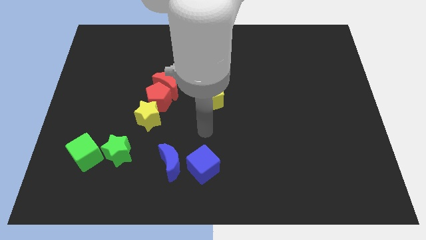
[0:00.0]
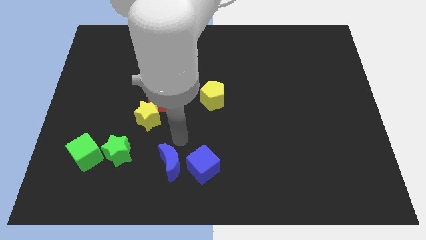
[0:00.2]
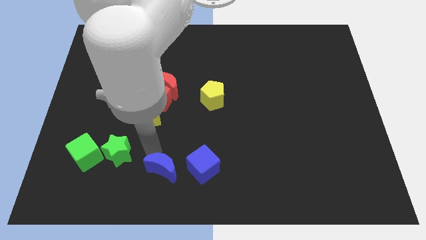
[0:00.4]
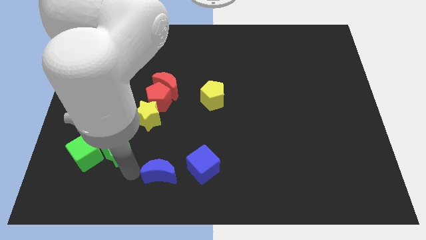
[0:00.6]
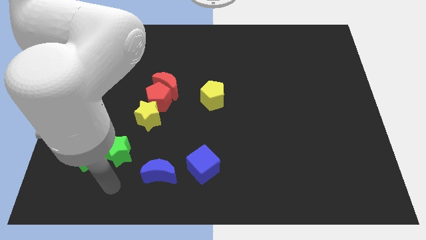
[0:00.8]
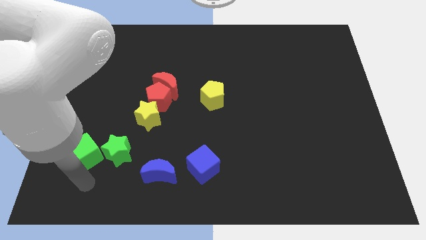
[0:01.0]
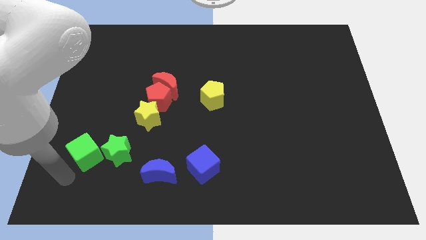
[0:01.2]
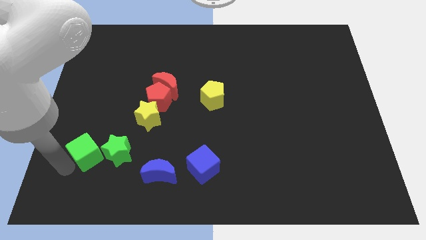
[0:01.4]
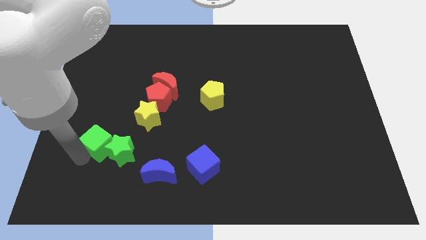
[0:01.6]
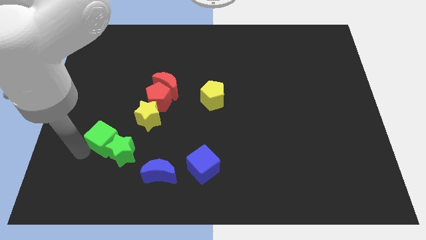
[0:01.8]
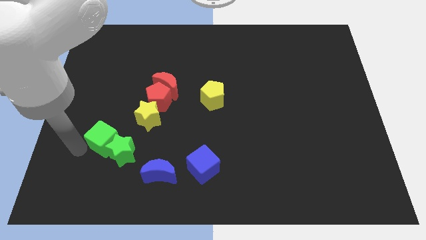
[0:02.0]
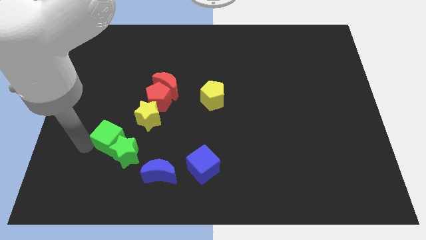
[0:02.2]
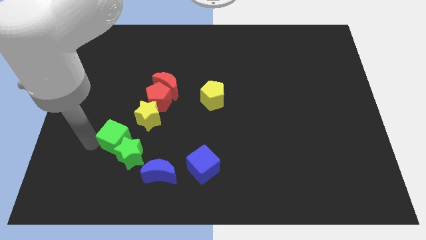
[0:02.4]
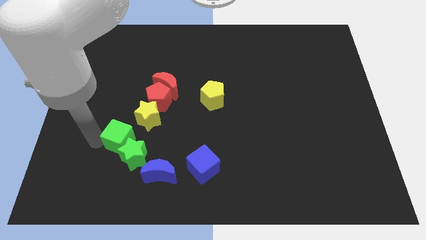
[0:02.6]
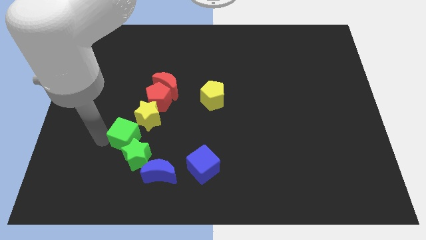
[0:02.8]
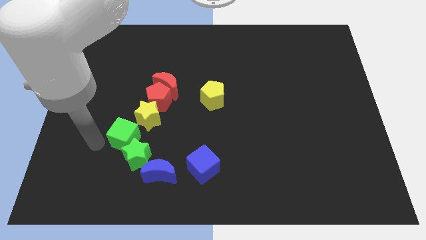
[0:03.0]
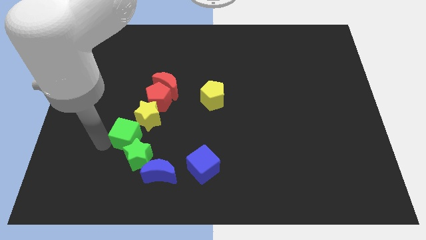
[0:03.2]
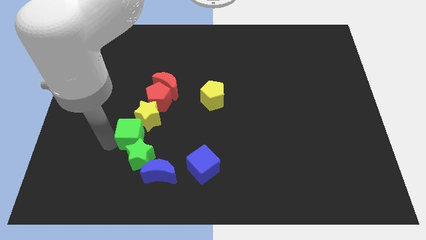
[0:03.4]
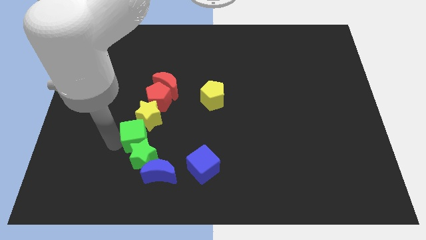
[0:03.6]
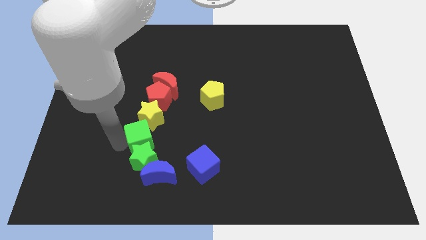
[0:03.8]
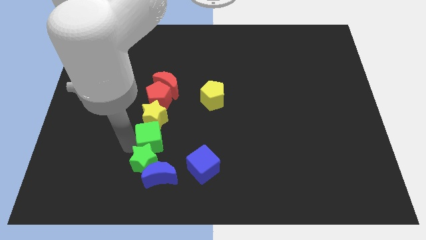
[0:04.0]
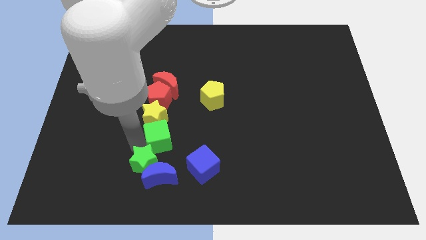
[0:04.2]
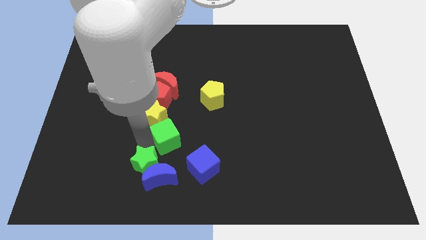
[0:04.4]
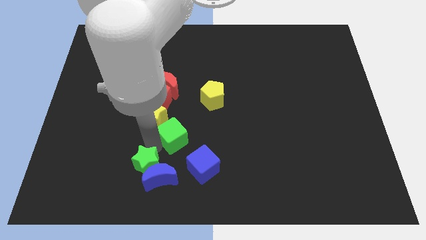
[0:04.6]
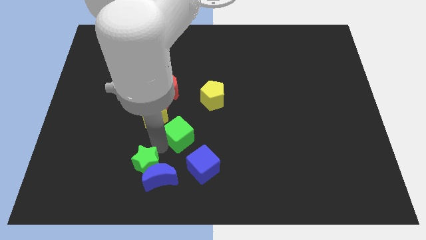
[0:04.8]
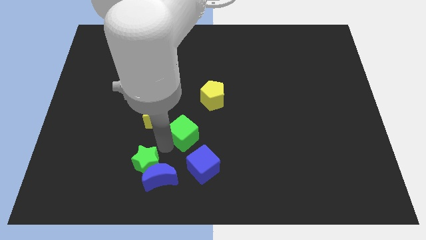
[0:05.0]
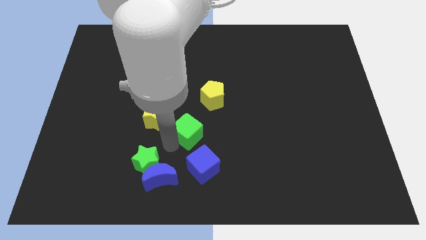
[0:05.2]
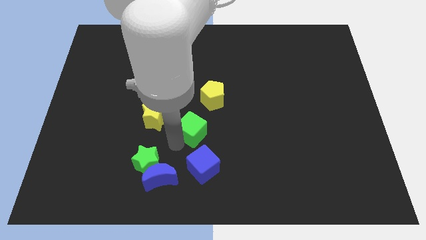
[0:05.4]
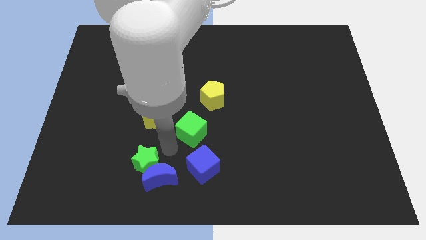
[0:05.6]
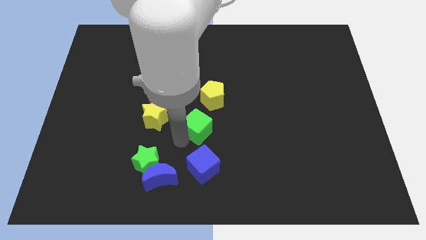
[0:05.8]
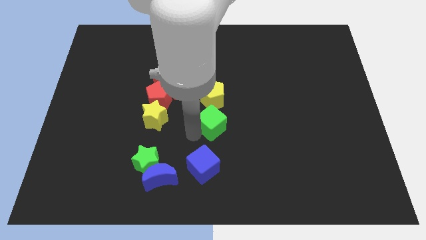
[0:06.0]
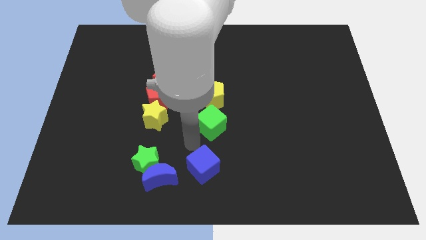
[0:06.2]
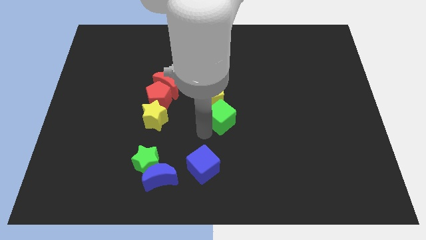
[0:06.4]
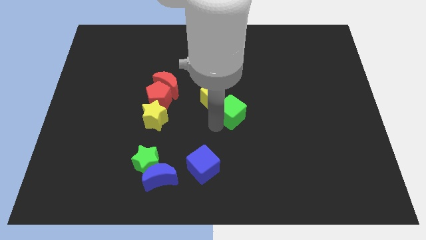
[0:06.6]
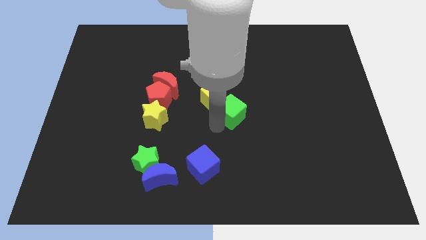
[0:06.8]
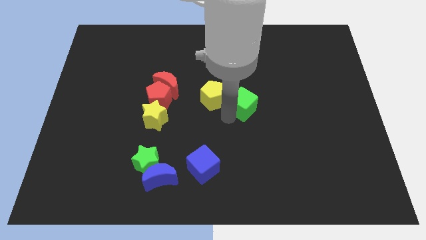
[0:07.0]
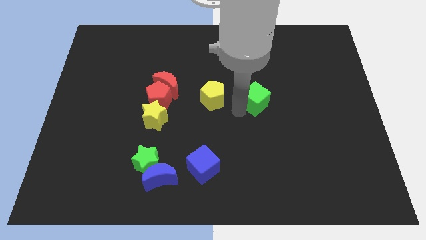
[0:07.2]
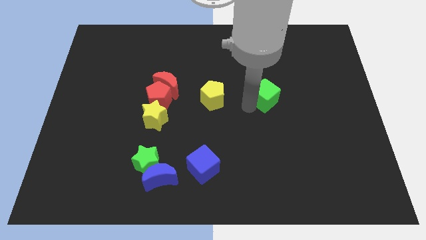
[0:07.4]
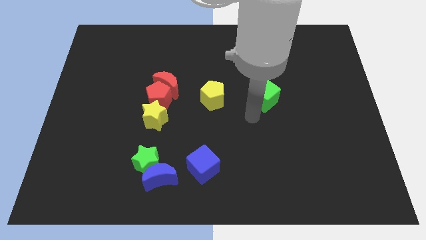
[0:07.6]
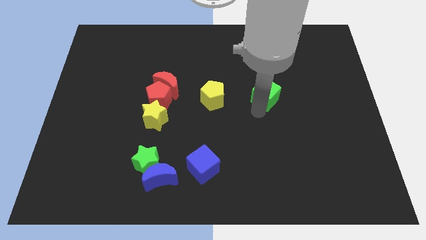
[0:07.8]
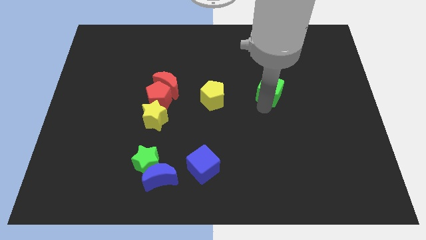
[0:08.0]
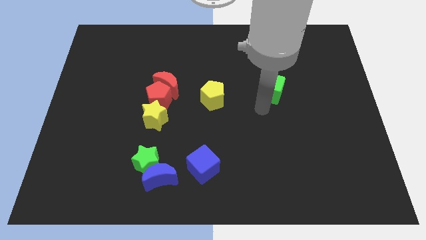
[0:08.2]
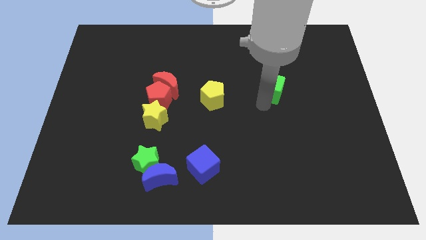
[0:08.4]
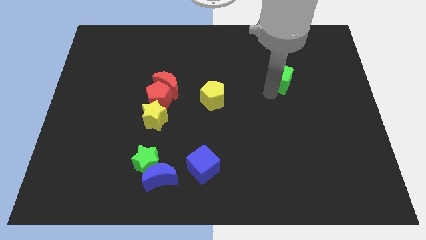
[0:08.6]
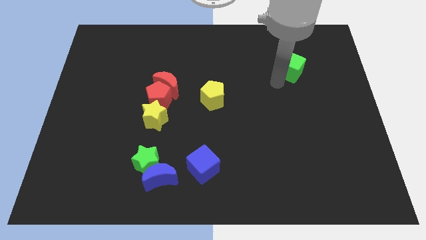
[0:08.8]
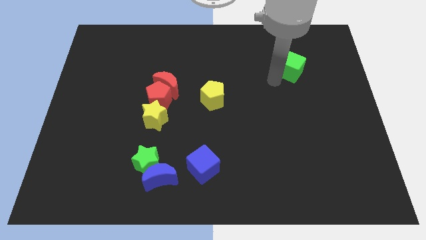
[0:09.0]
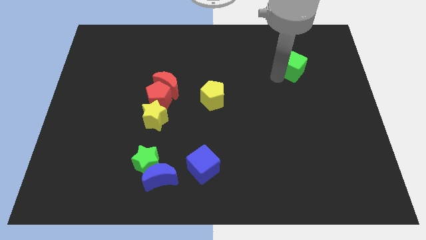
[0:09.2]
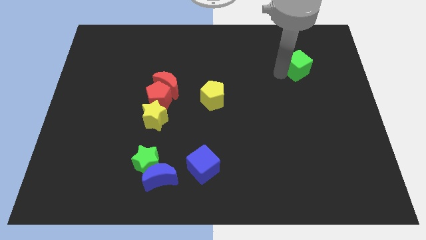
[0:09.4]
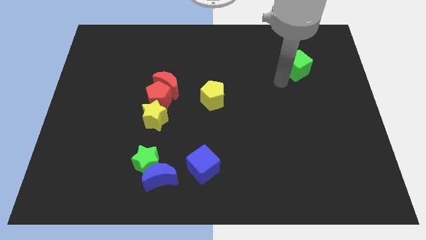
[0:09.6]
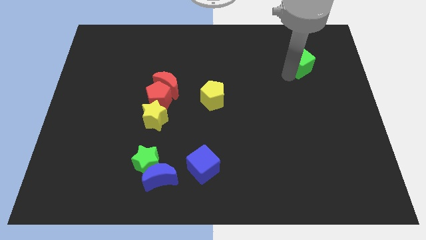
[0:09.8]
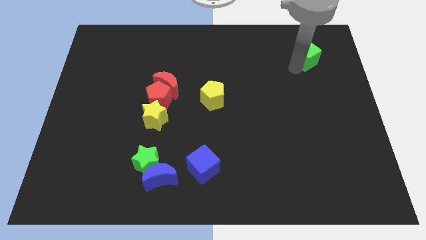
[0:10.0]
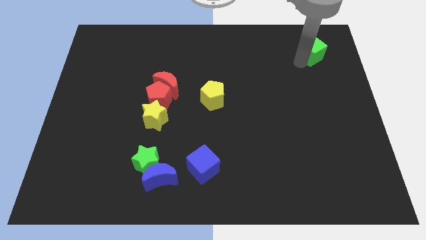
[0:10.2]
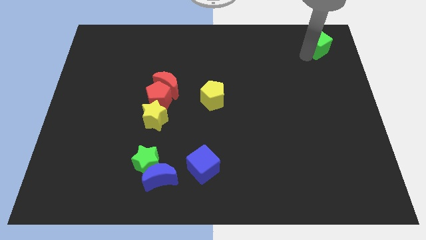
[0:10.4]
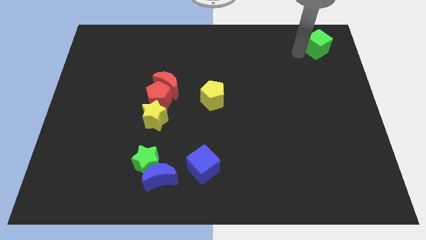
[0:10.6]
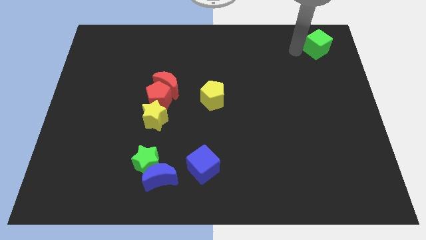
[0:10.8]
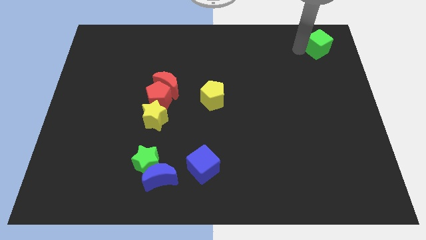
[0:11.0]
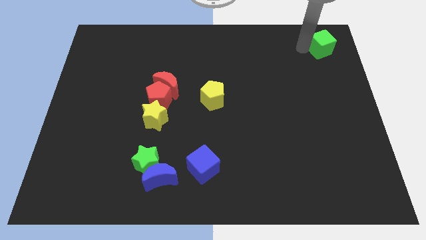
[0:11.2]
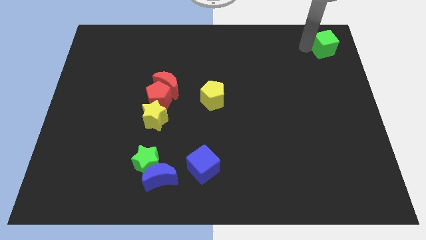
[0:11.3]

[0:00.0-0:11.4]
slide the green cube to the top right

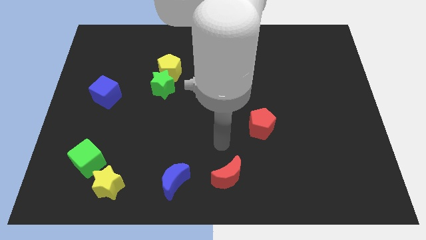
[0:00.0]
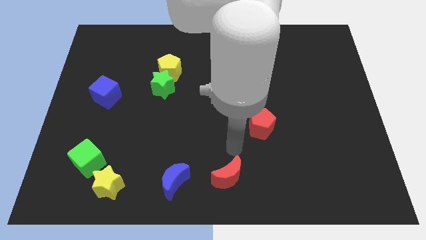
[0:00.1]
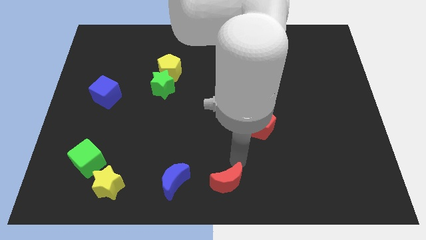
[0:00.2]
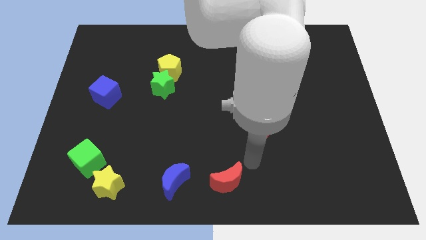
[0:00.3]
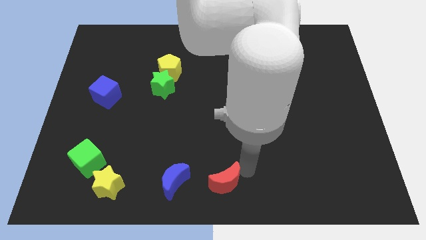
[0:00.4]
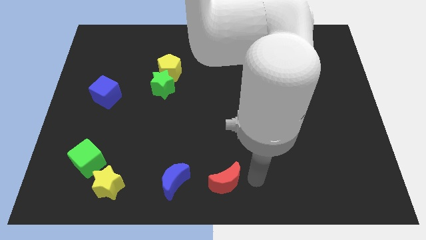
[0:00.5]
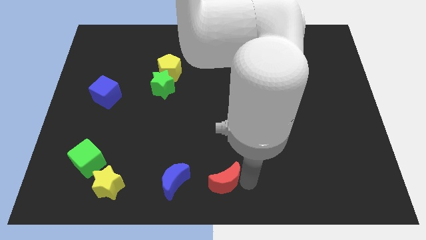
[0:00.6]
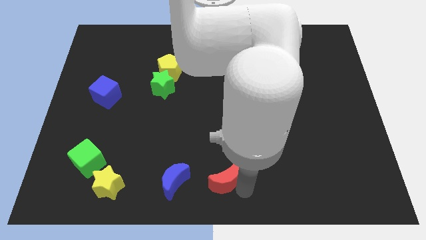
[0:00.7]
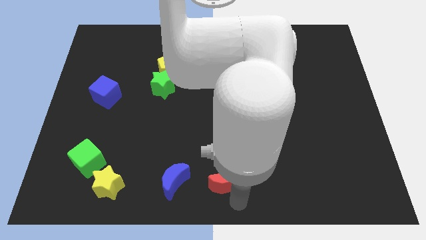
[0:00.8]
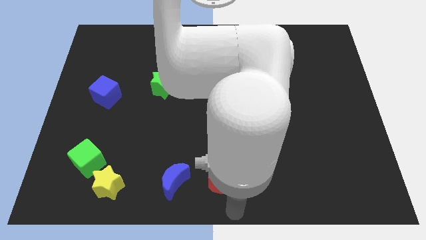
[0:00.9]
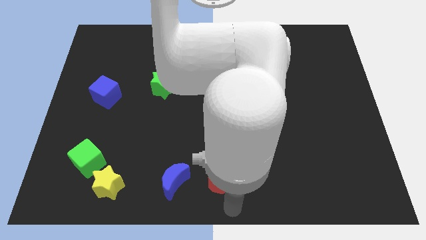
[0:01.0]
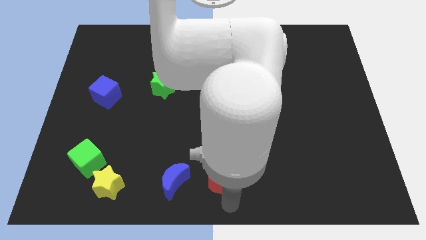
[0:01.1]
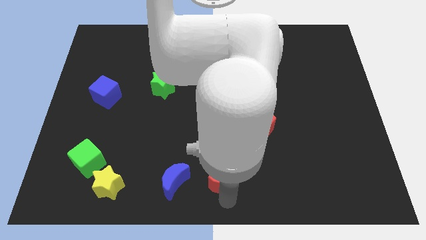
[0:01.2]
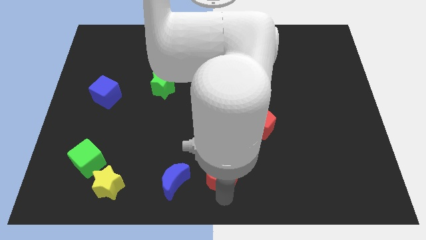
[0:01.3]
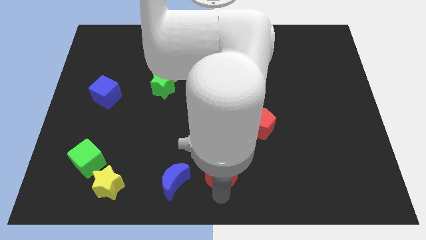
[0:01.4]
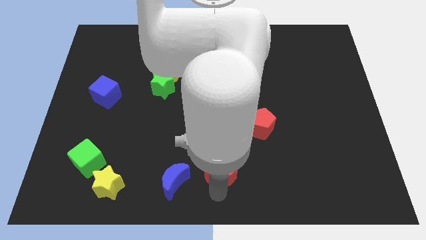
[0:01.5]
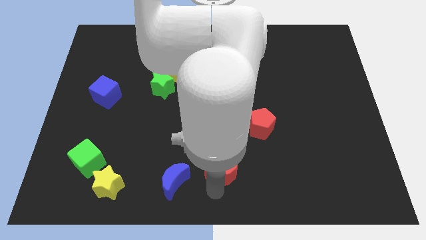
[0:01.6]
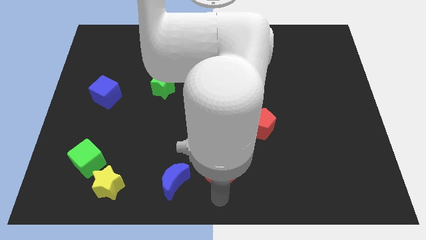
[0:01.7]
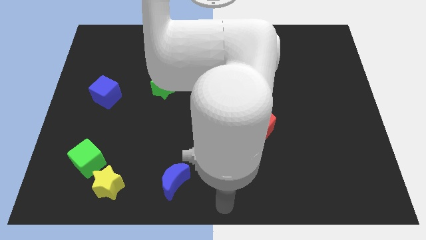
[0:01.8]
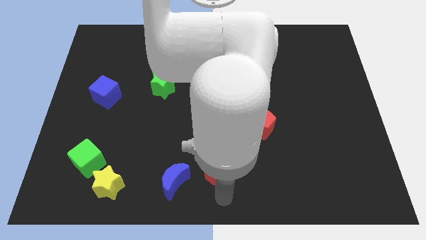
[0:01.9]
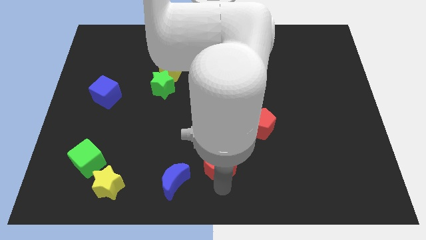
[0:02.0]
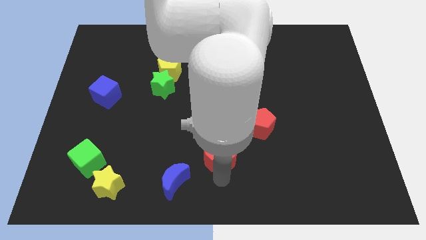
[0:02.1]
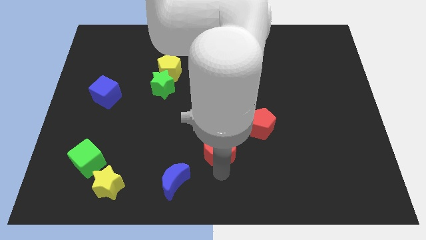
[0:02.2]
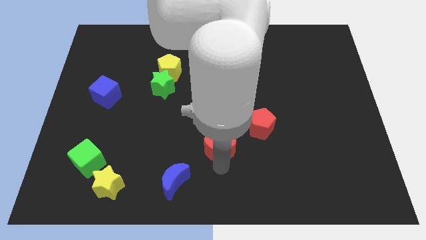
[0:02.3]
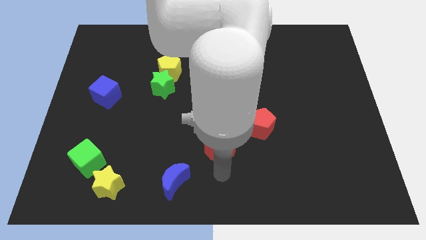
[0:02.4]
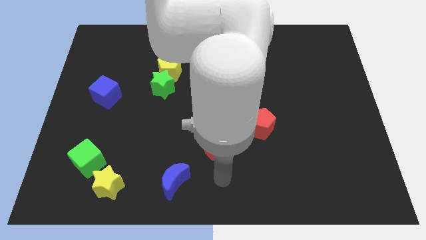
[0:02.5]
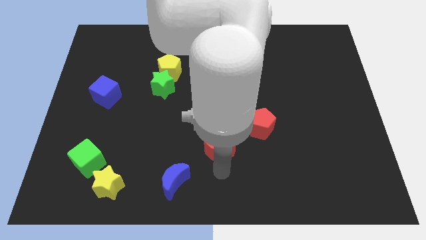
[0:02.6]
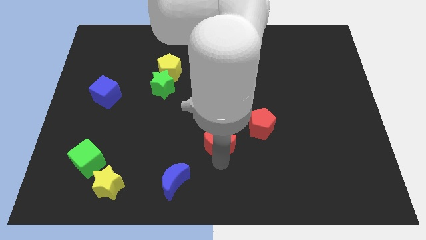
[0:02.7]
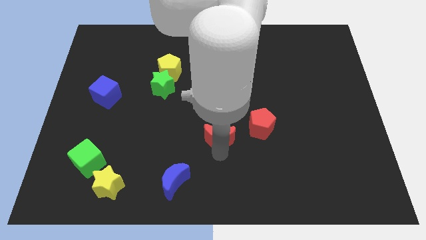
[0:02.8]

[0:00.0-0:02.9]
put the red moon to the center of the board
